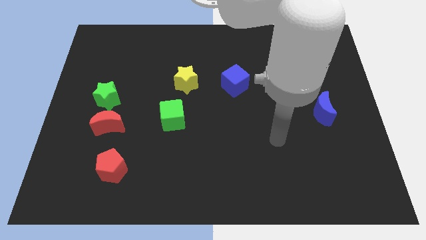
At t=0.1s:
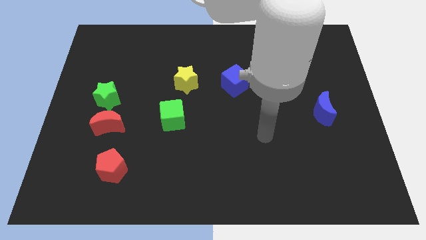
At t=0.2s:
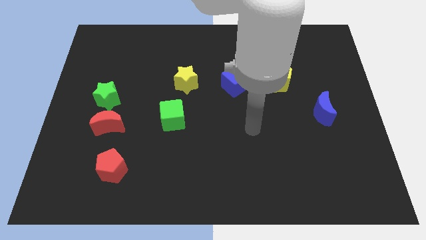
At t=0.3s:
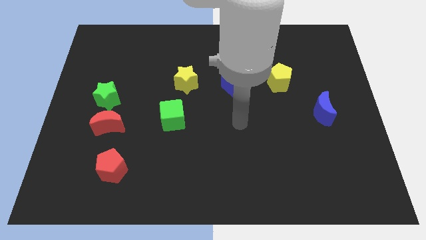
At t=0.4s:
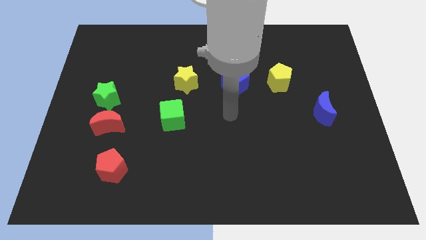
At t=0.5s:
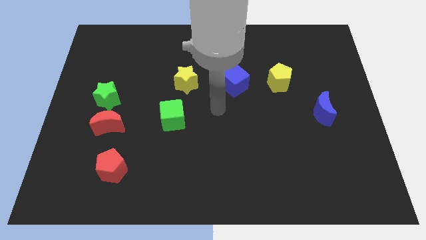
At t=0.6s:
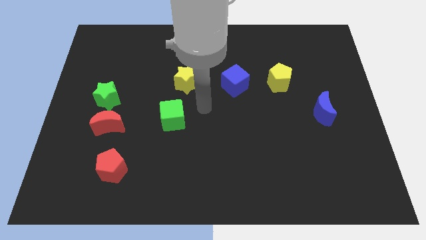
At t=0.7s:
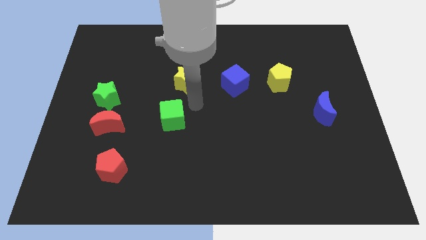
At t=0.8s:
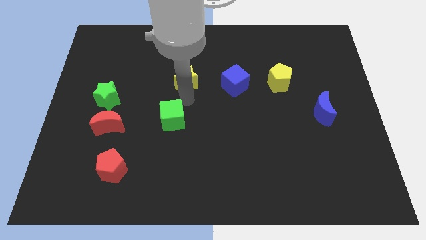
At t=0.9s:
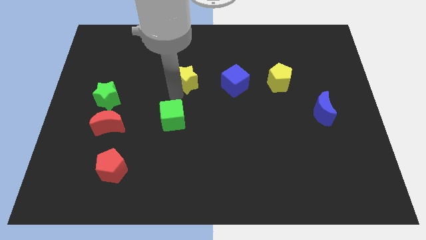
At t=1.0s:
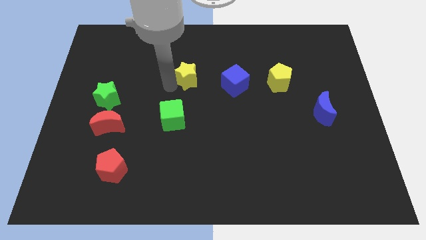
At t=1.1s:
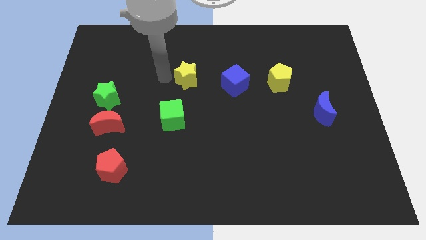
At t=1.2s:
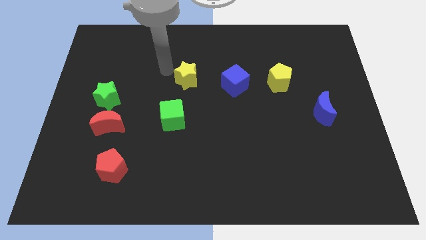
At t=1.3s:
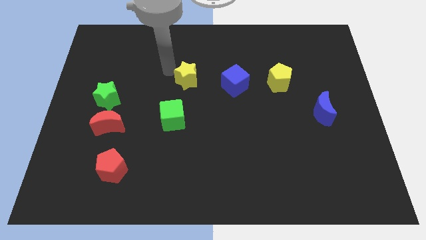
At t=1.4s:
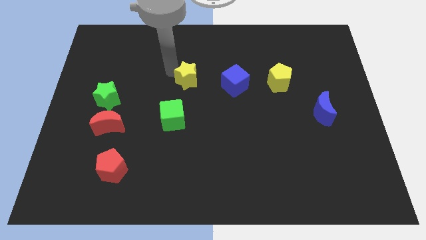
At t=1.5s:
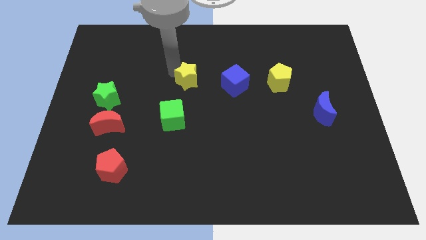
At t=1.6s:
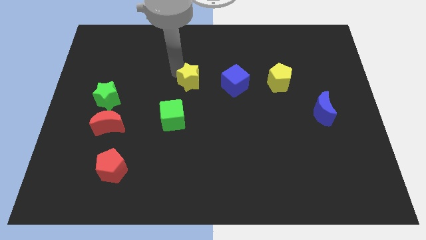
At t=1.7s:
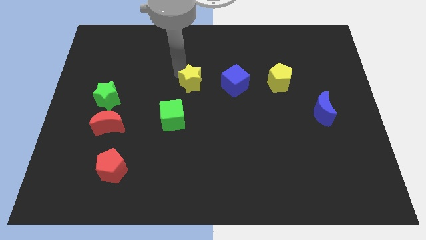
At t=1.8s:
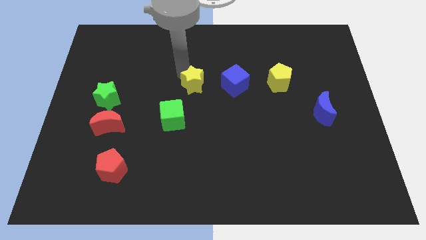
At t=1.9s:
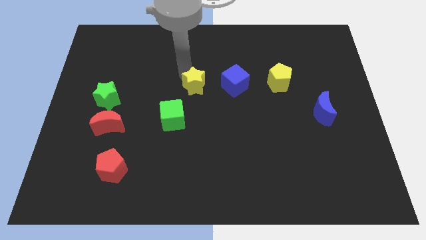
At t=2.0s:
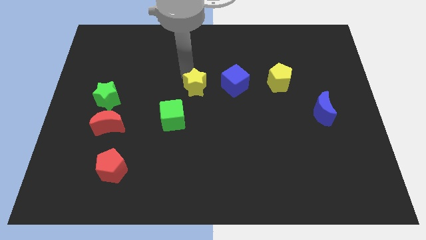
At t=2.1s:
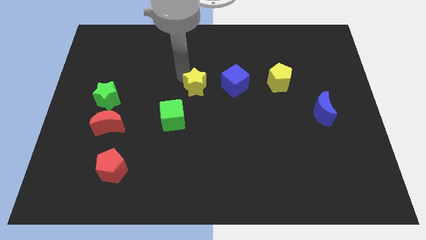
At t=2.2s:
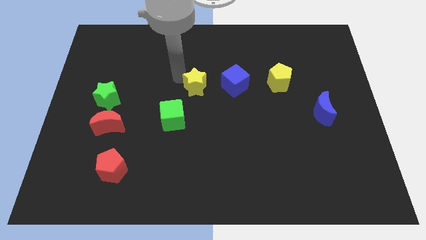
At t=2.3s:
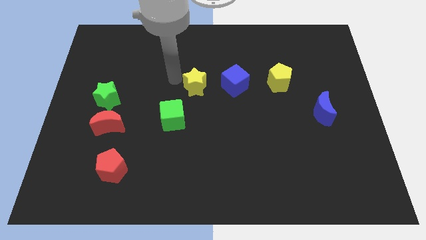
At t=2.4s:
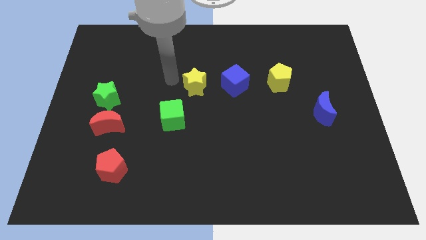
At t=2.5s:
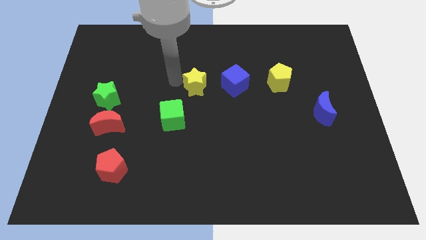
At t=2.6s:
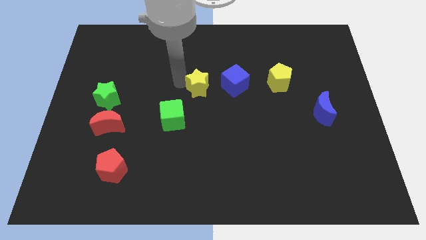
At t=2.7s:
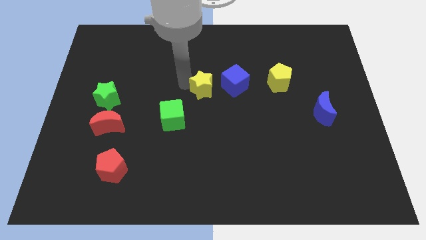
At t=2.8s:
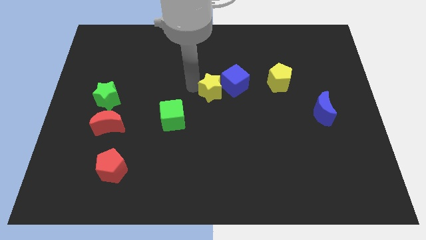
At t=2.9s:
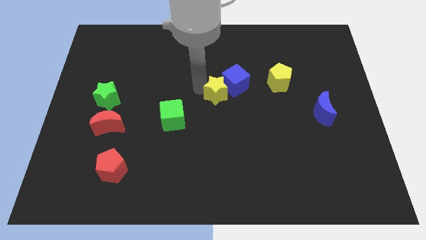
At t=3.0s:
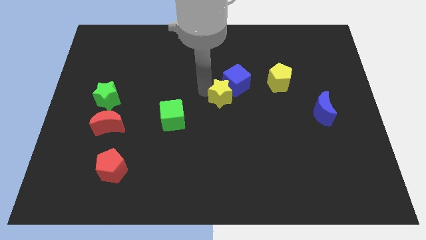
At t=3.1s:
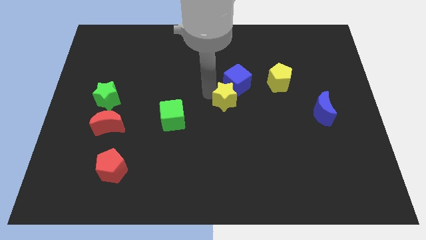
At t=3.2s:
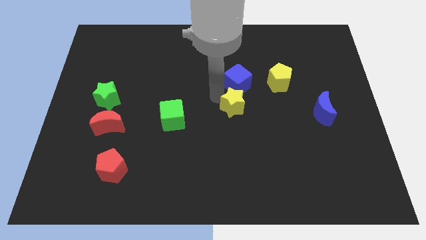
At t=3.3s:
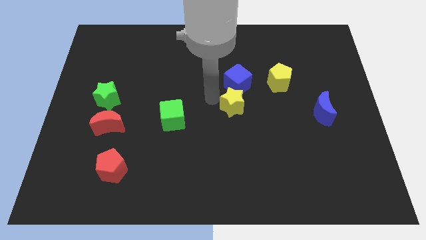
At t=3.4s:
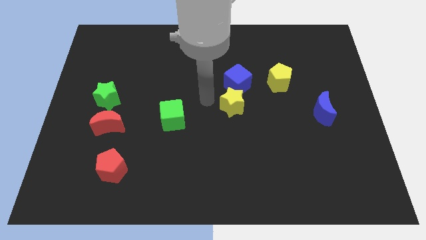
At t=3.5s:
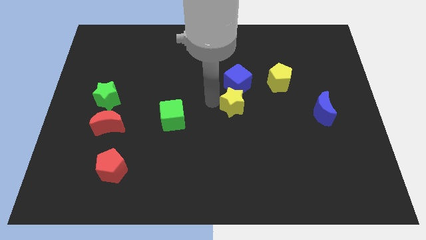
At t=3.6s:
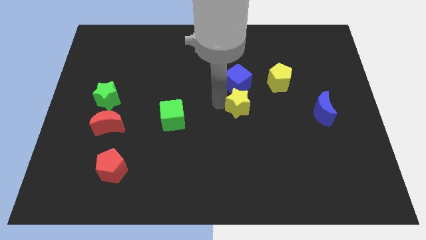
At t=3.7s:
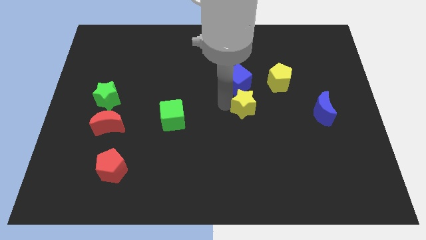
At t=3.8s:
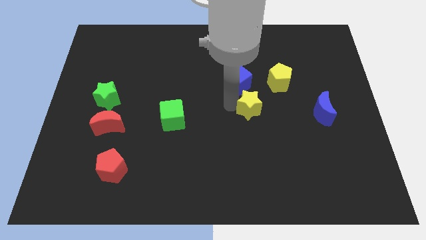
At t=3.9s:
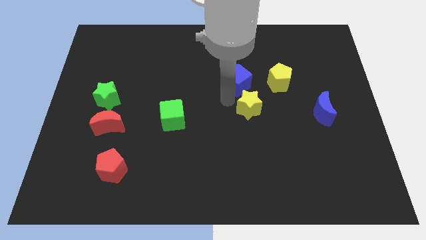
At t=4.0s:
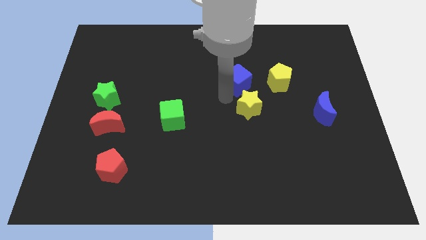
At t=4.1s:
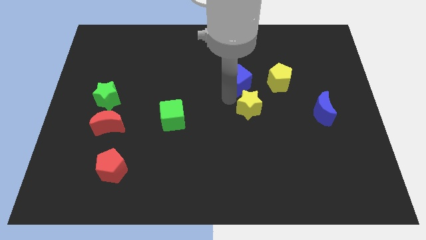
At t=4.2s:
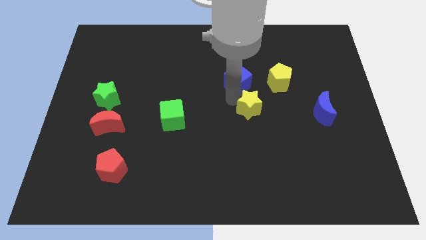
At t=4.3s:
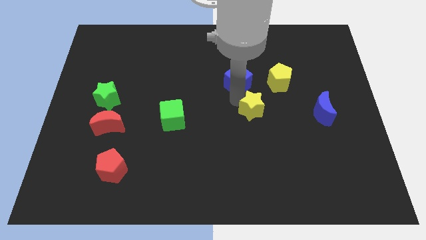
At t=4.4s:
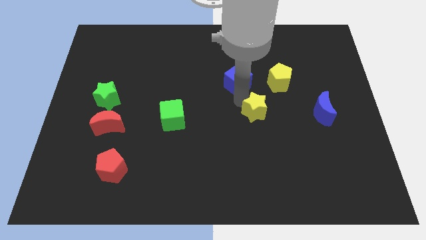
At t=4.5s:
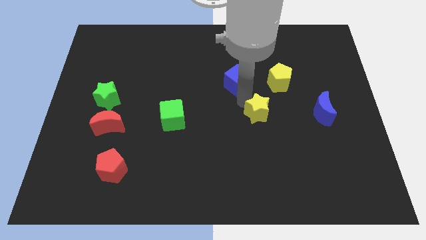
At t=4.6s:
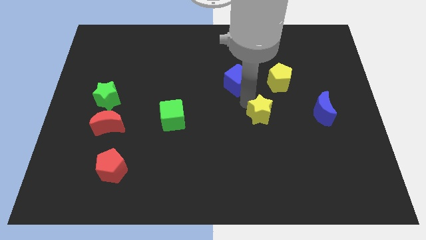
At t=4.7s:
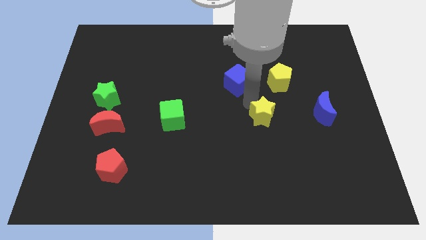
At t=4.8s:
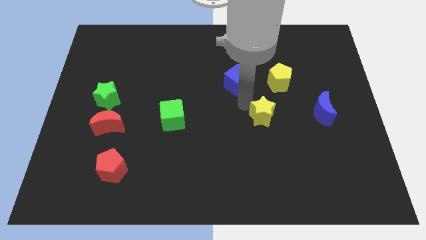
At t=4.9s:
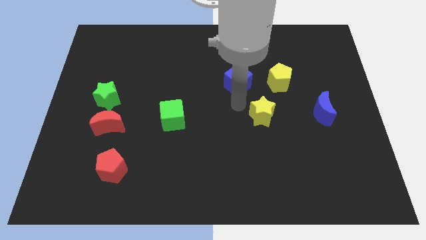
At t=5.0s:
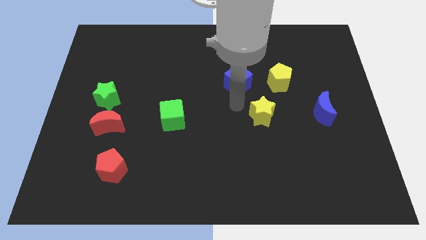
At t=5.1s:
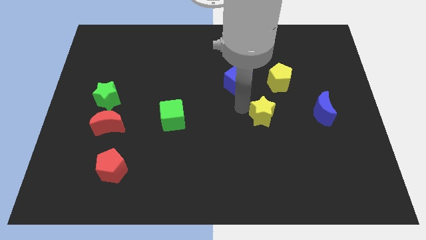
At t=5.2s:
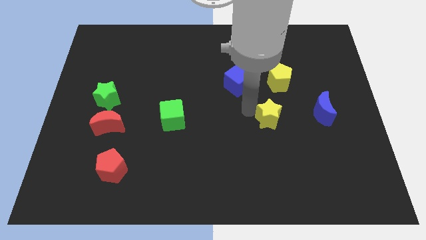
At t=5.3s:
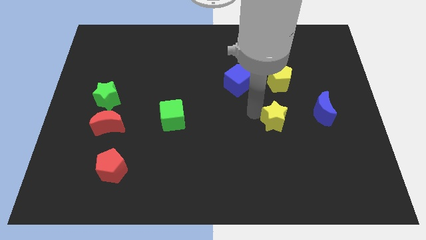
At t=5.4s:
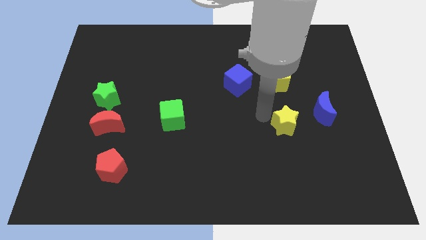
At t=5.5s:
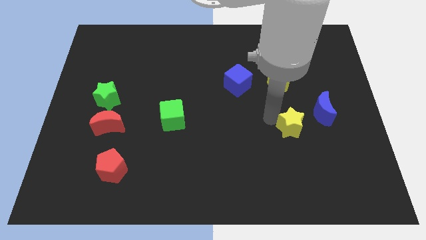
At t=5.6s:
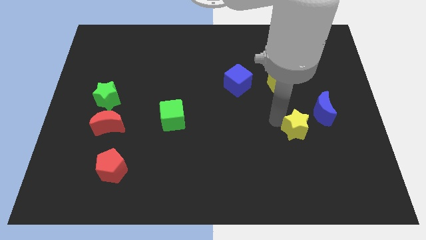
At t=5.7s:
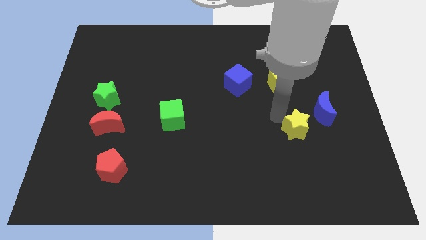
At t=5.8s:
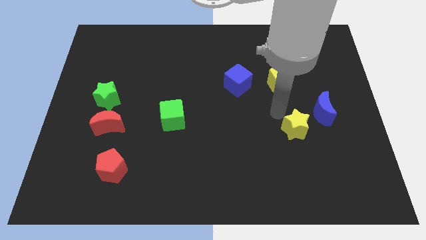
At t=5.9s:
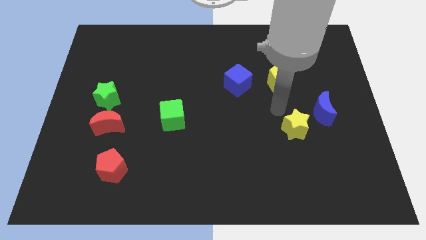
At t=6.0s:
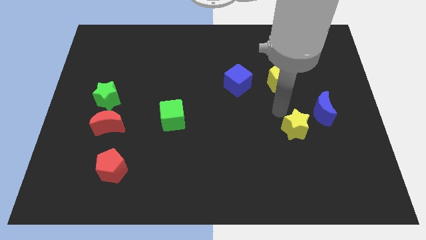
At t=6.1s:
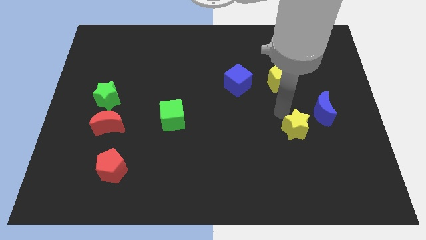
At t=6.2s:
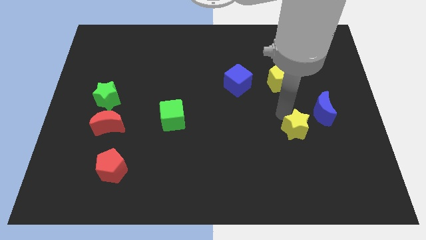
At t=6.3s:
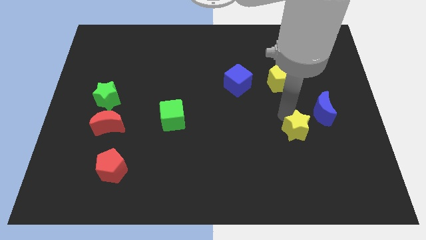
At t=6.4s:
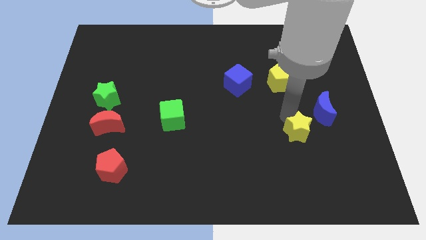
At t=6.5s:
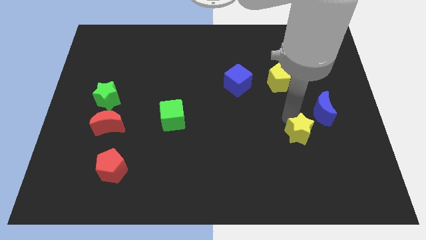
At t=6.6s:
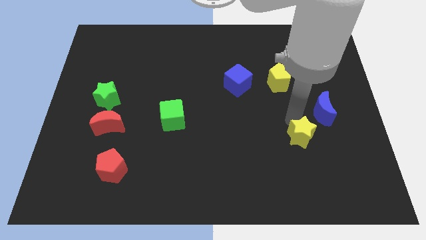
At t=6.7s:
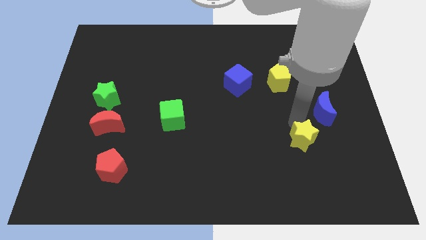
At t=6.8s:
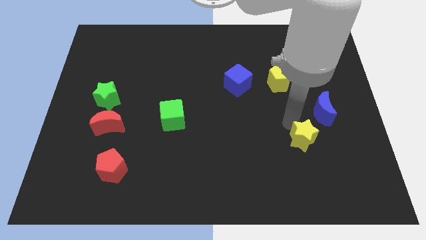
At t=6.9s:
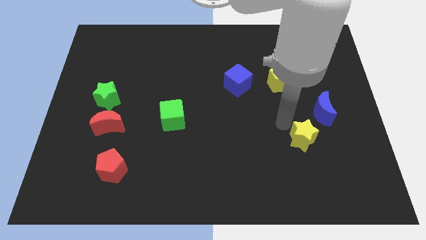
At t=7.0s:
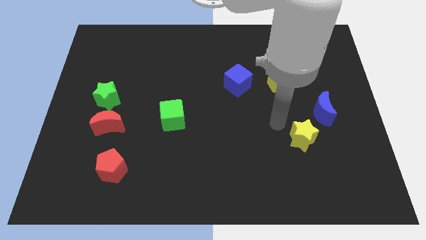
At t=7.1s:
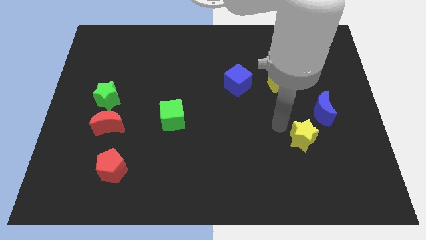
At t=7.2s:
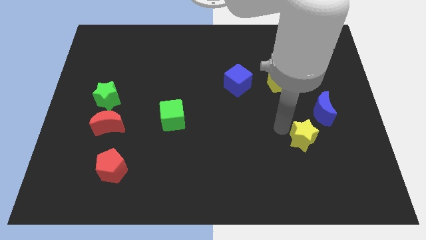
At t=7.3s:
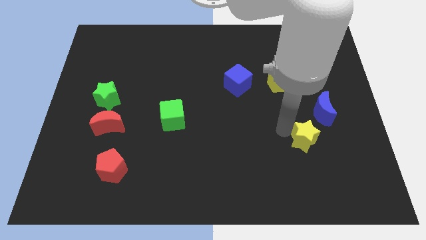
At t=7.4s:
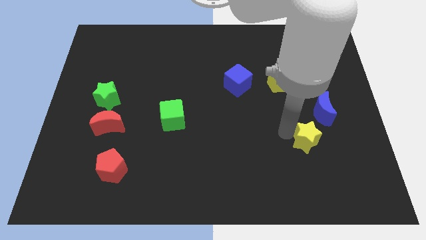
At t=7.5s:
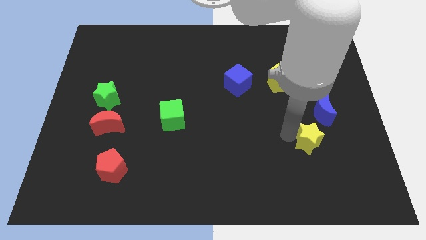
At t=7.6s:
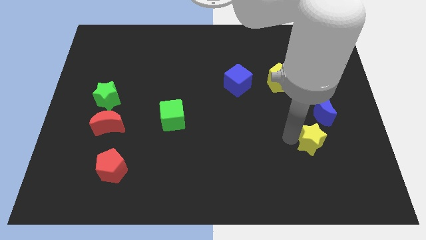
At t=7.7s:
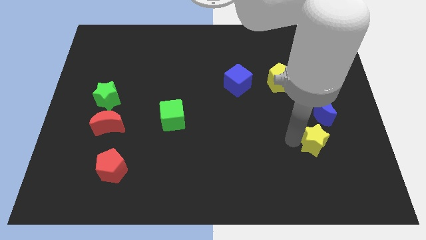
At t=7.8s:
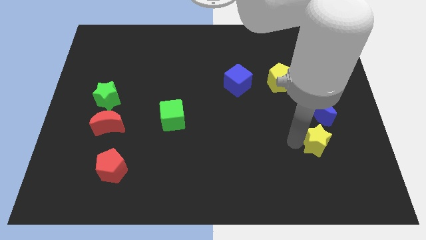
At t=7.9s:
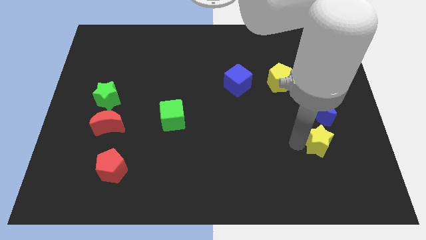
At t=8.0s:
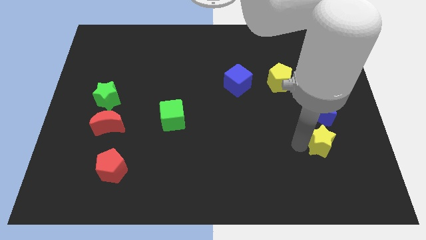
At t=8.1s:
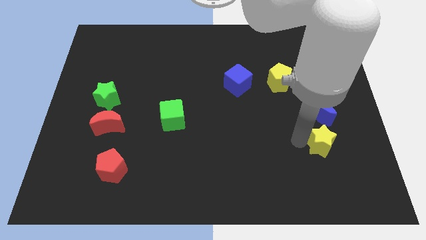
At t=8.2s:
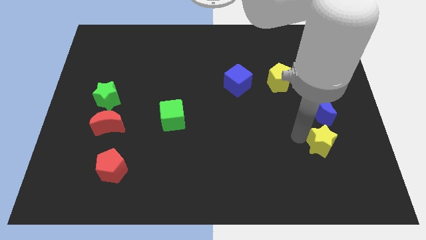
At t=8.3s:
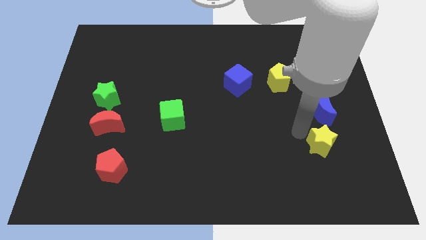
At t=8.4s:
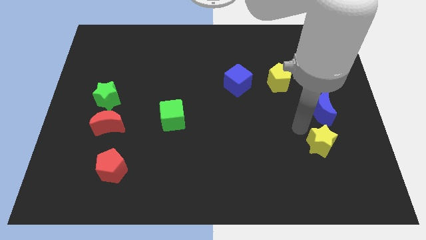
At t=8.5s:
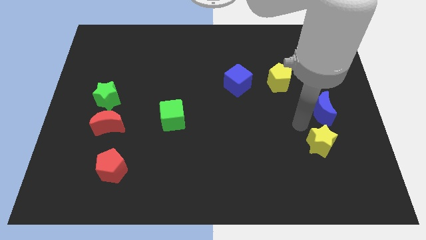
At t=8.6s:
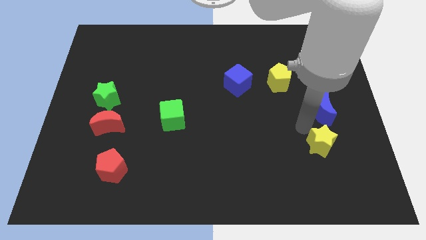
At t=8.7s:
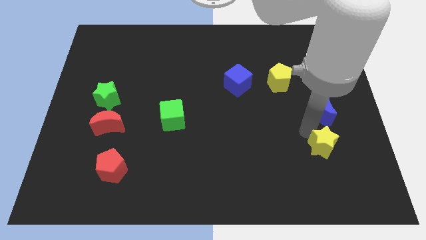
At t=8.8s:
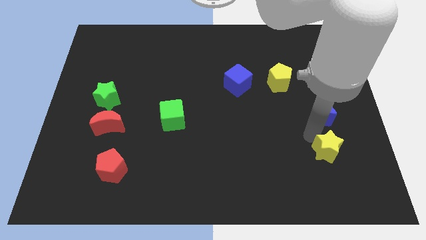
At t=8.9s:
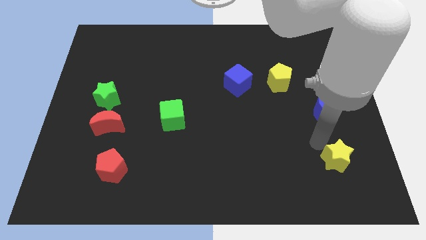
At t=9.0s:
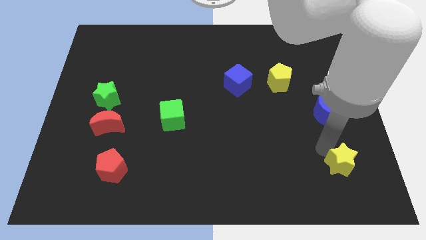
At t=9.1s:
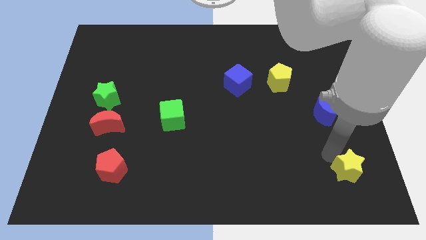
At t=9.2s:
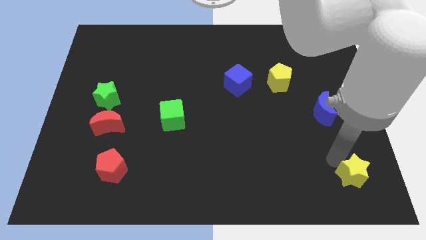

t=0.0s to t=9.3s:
move the yellow star to the bottom right corner
